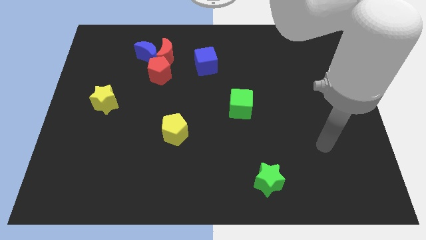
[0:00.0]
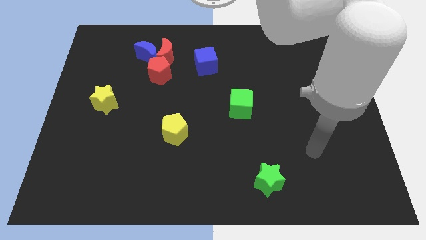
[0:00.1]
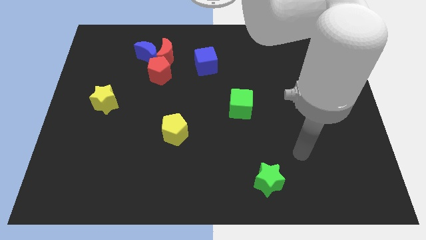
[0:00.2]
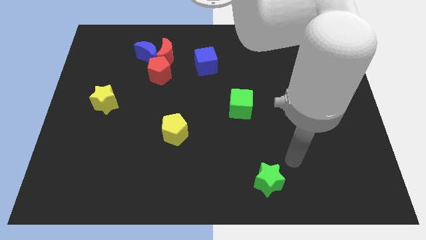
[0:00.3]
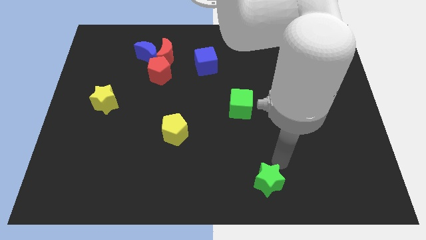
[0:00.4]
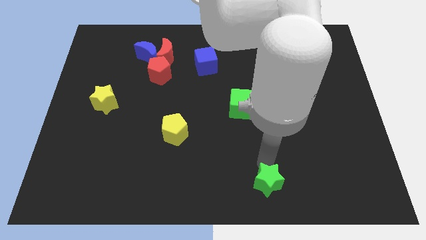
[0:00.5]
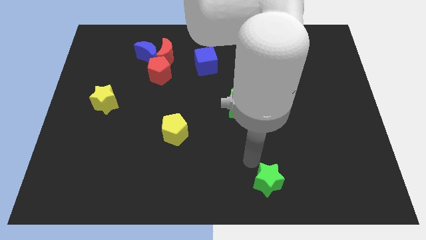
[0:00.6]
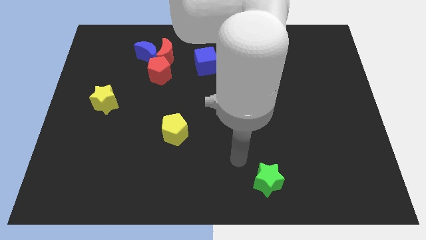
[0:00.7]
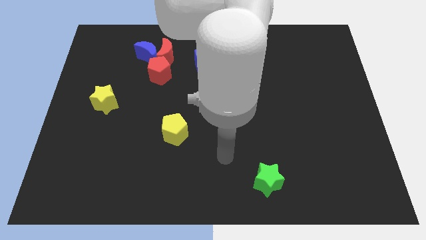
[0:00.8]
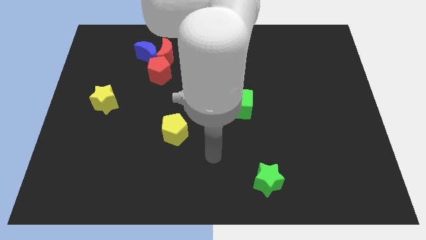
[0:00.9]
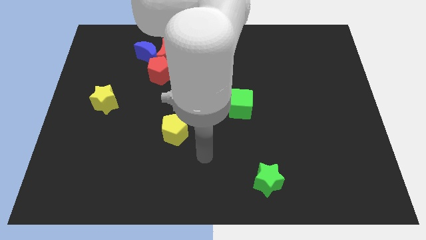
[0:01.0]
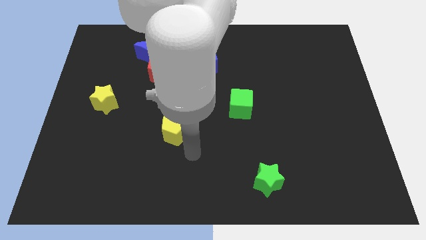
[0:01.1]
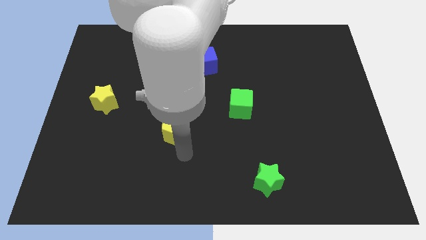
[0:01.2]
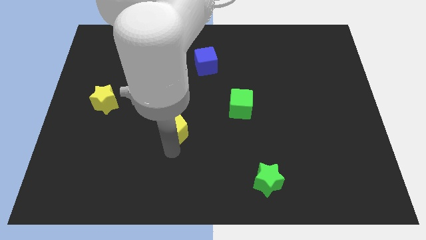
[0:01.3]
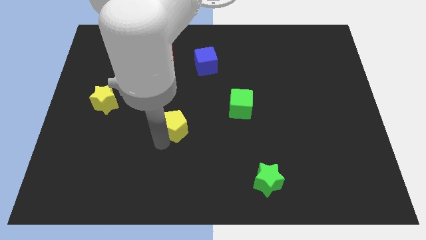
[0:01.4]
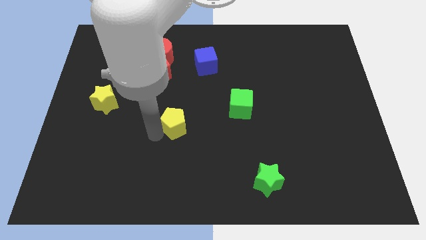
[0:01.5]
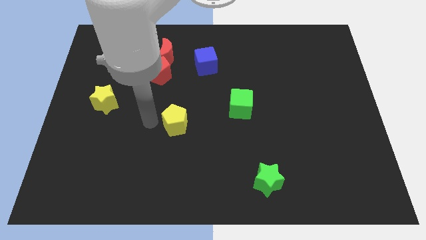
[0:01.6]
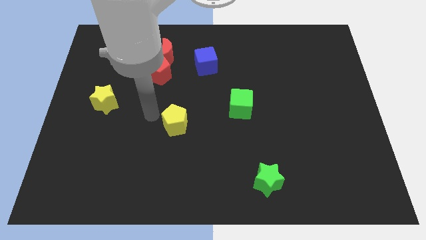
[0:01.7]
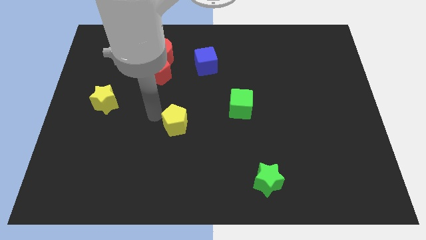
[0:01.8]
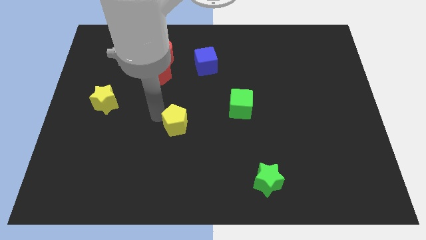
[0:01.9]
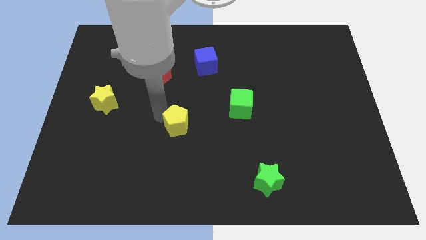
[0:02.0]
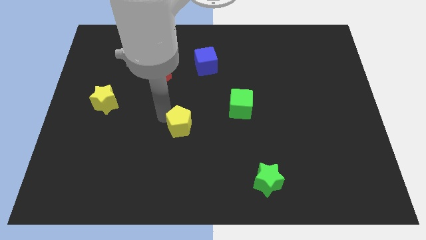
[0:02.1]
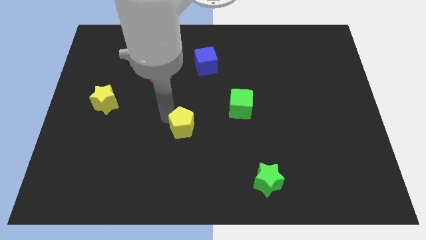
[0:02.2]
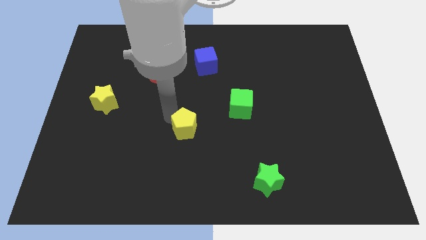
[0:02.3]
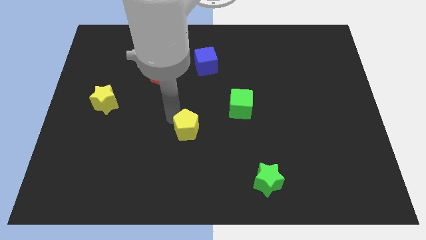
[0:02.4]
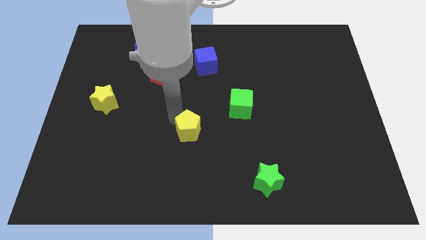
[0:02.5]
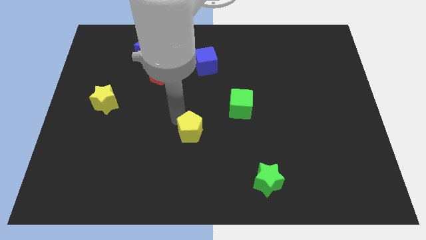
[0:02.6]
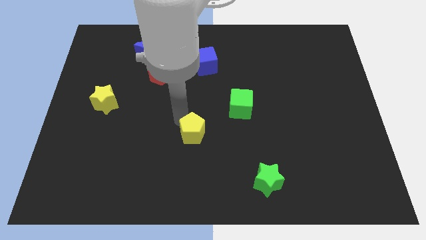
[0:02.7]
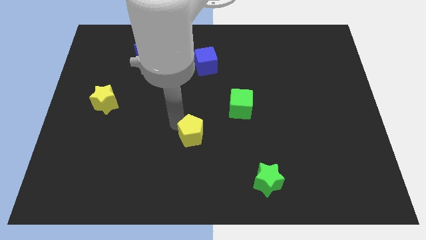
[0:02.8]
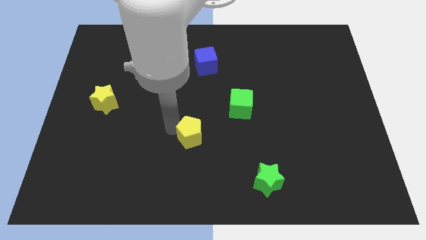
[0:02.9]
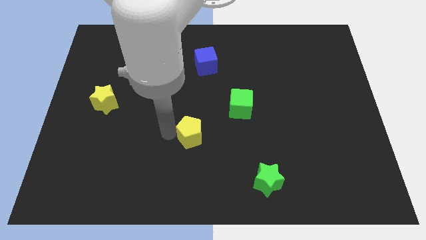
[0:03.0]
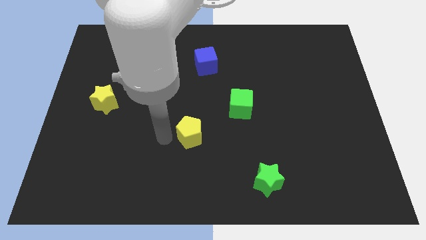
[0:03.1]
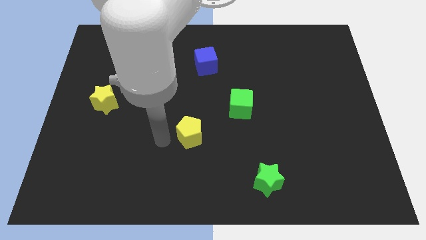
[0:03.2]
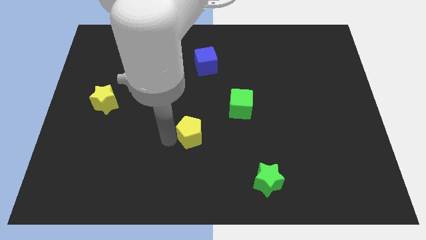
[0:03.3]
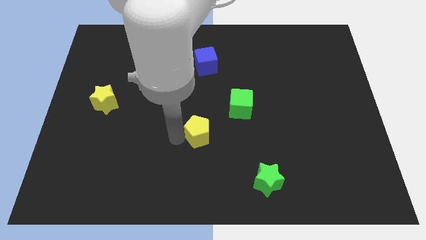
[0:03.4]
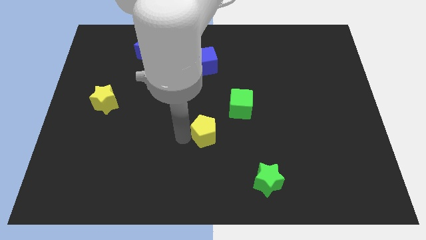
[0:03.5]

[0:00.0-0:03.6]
move the yellow pentagon to the right a little bit

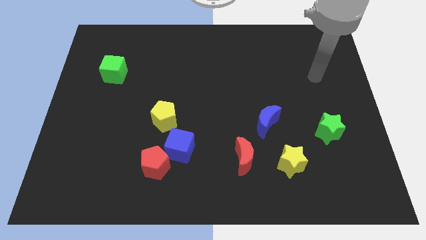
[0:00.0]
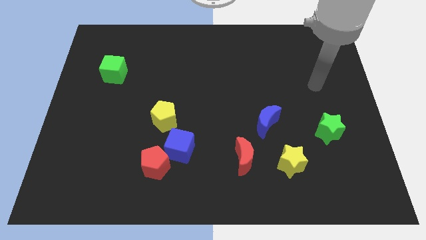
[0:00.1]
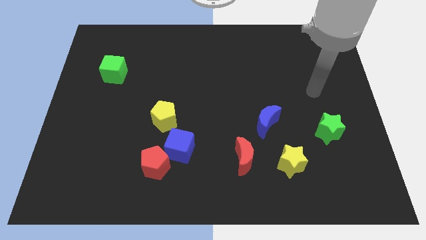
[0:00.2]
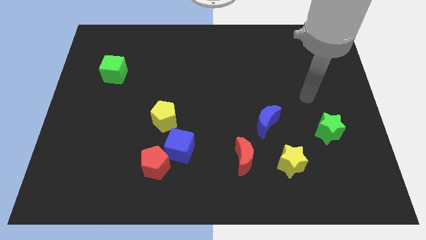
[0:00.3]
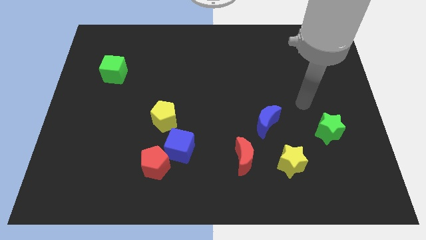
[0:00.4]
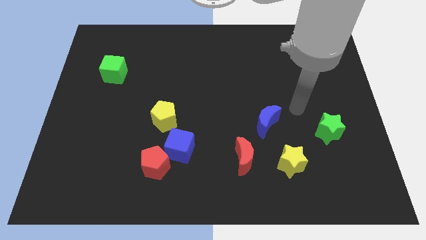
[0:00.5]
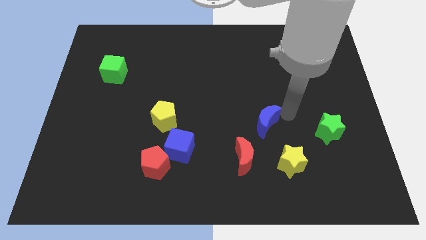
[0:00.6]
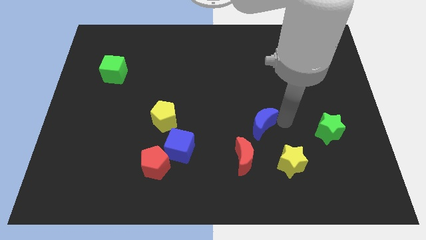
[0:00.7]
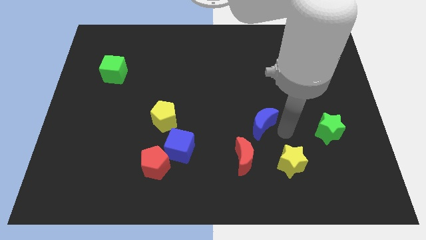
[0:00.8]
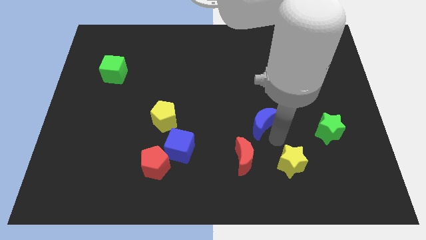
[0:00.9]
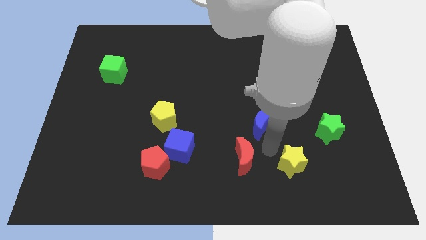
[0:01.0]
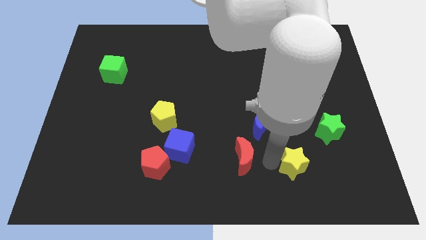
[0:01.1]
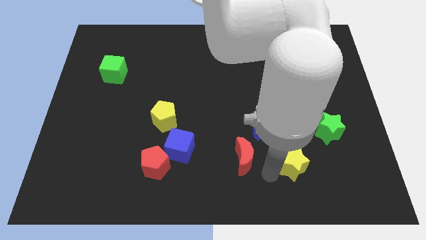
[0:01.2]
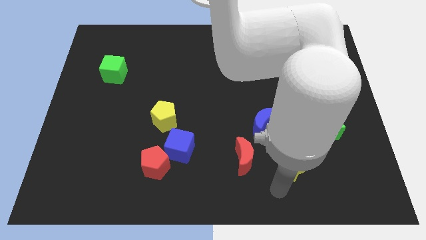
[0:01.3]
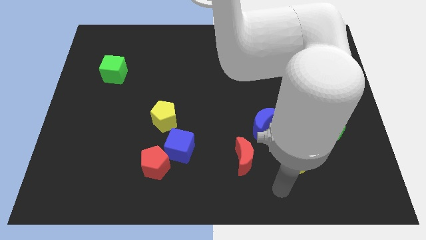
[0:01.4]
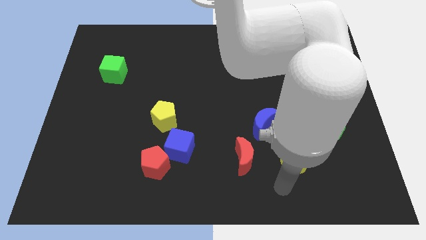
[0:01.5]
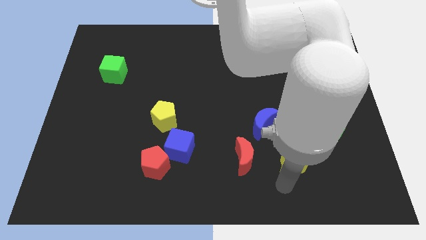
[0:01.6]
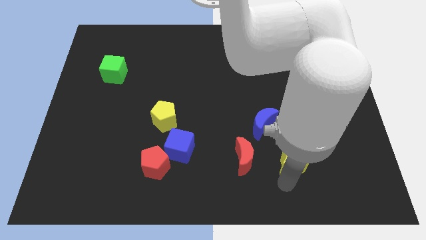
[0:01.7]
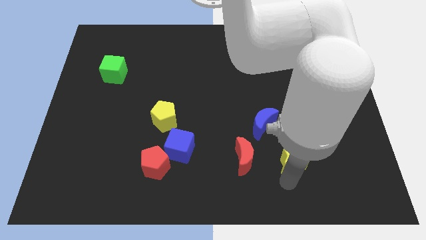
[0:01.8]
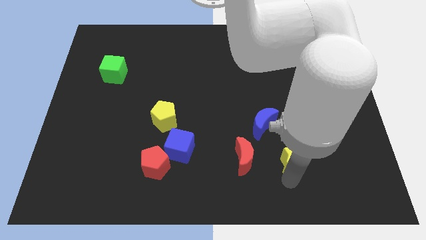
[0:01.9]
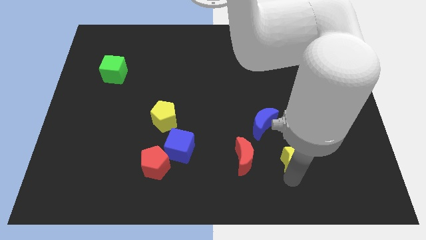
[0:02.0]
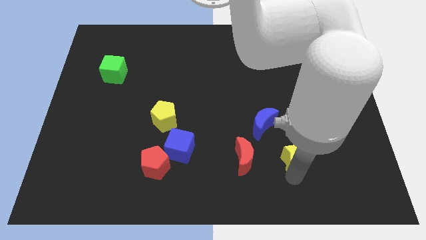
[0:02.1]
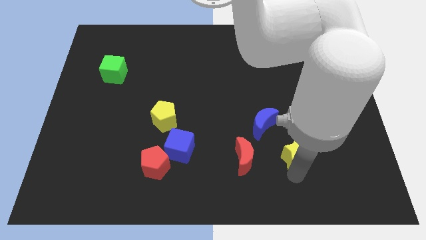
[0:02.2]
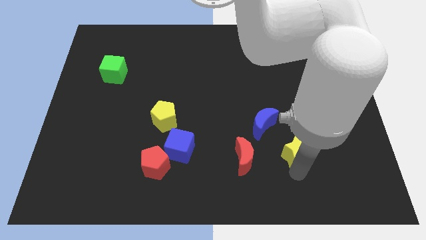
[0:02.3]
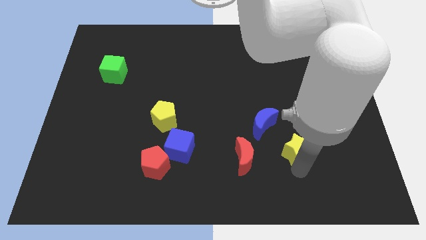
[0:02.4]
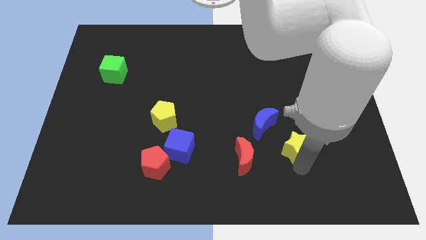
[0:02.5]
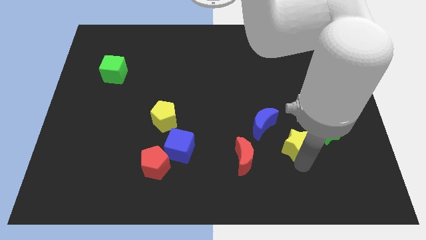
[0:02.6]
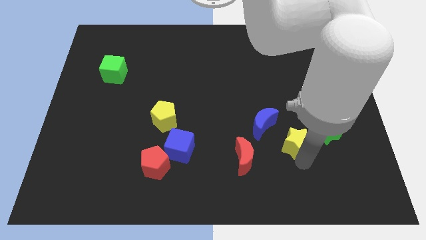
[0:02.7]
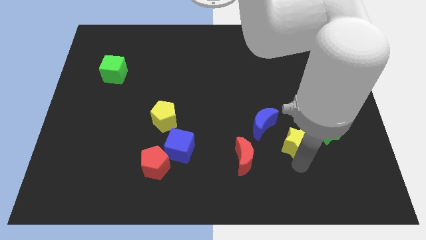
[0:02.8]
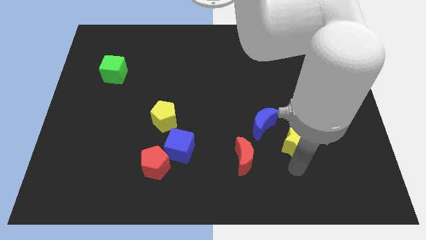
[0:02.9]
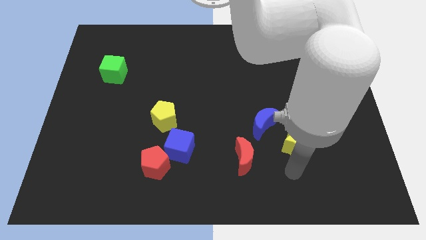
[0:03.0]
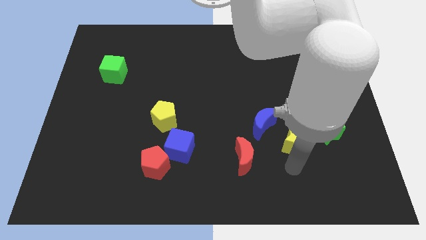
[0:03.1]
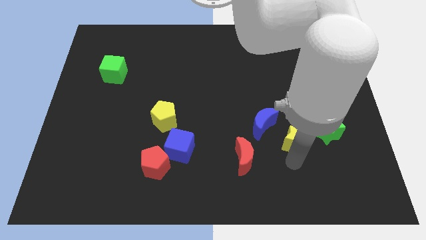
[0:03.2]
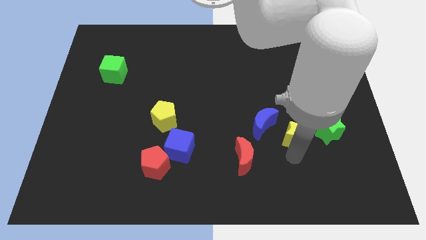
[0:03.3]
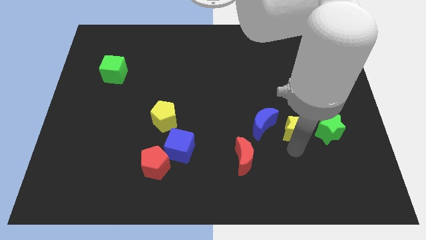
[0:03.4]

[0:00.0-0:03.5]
move the yellow star upwards somewhat

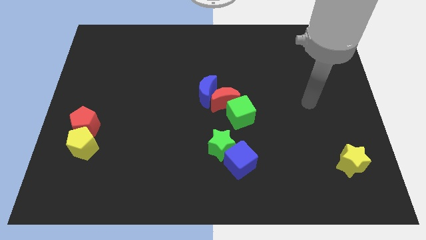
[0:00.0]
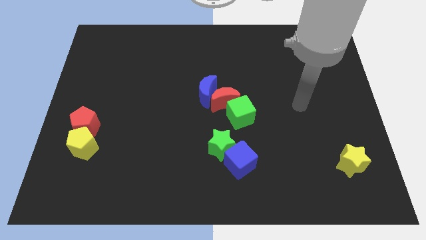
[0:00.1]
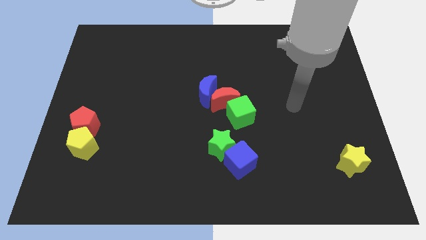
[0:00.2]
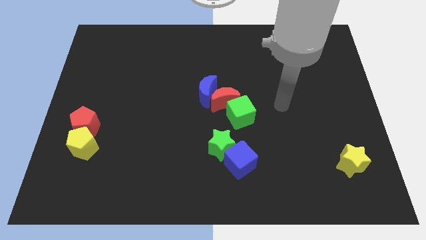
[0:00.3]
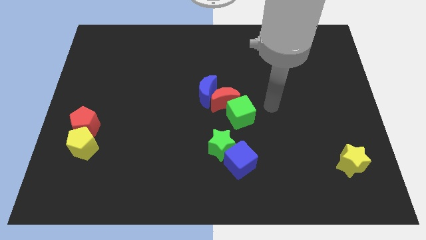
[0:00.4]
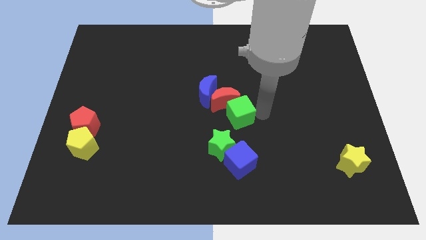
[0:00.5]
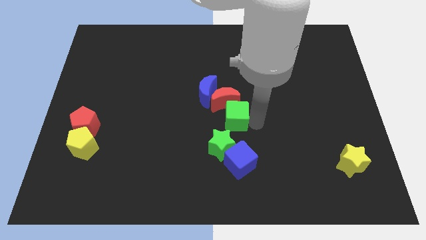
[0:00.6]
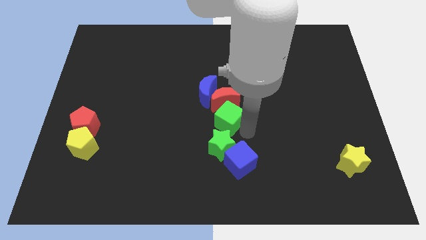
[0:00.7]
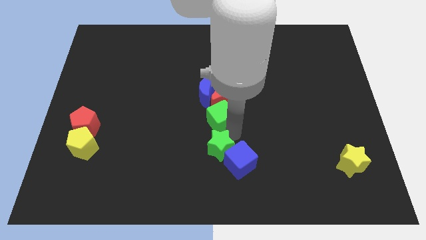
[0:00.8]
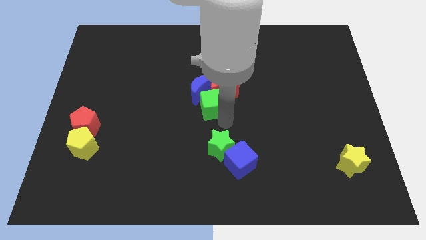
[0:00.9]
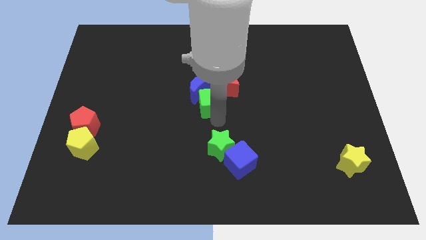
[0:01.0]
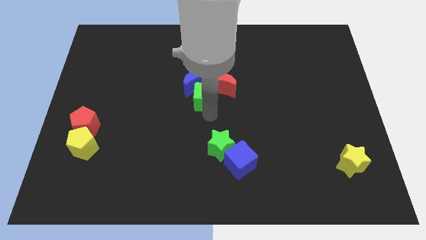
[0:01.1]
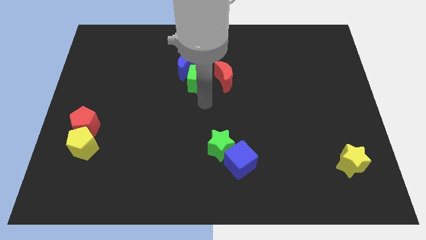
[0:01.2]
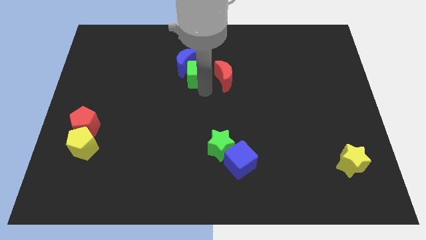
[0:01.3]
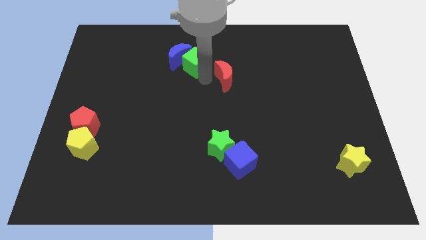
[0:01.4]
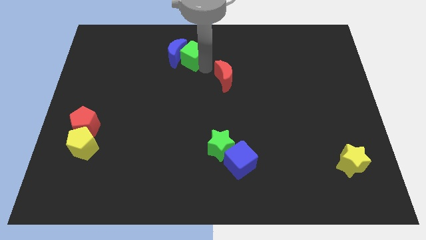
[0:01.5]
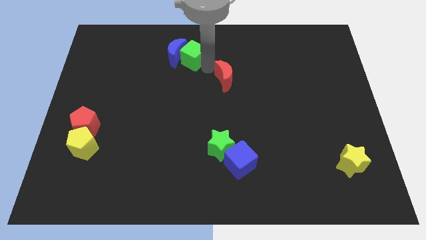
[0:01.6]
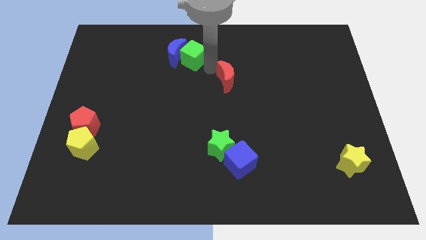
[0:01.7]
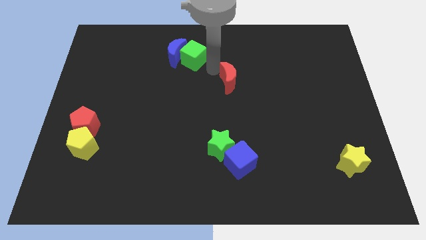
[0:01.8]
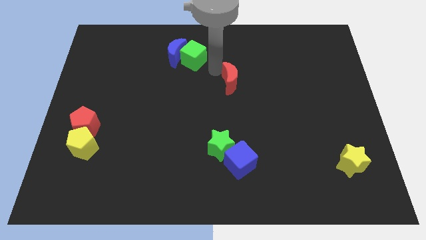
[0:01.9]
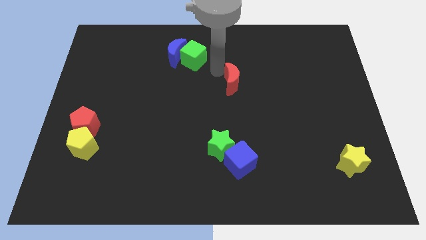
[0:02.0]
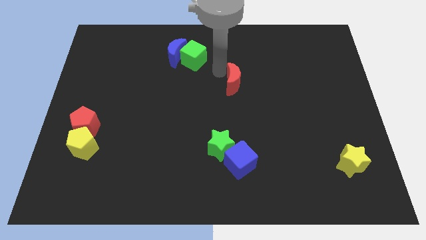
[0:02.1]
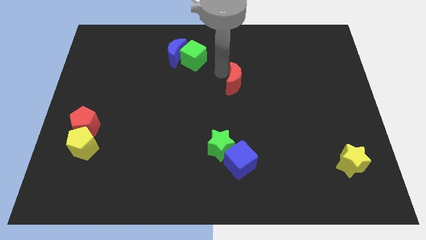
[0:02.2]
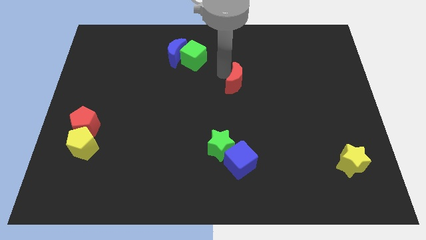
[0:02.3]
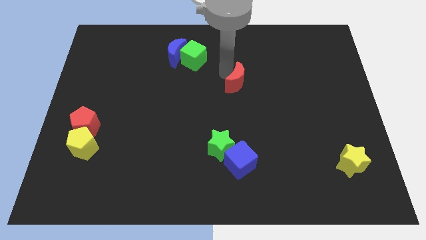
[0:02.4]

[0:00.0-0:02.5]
push the red moon a little up and to the right diagonally
